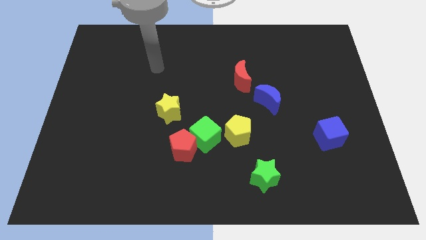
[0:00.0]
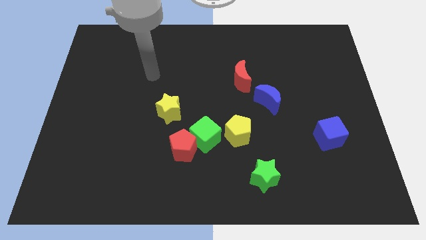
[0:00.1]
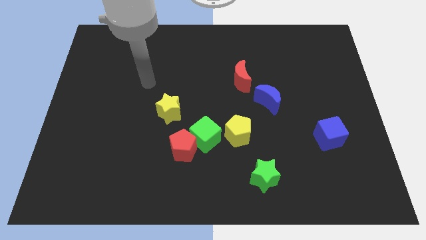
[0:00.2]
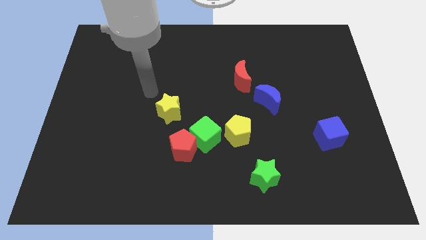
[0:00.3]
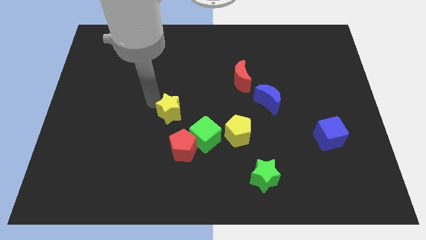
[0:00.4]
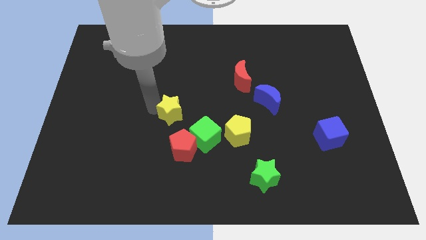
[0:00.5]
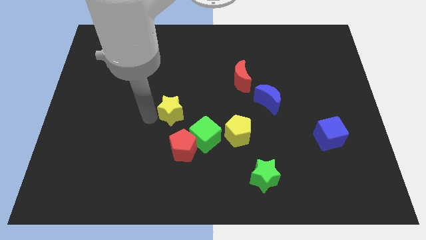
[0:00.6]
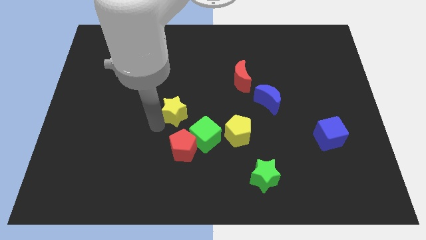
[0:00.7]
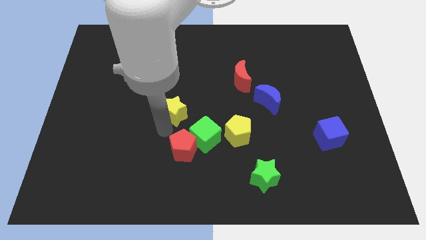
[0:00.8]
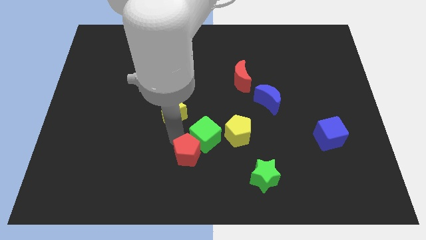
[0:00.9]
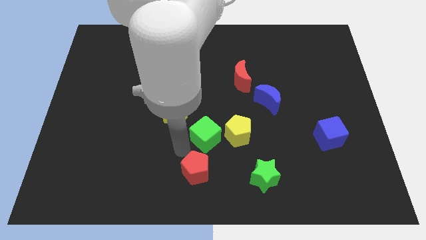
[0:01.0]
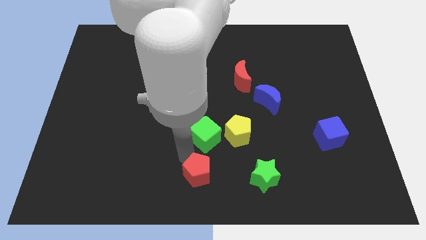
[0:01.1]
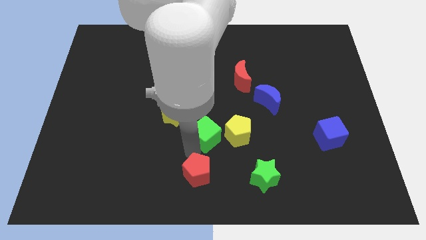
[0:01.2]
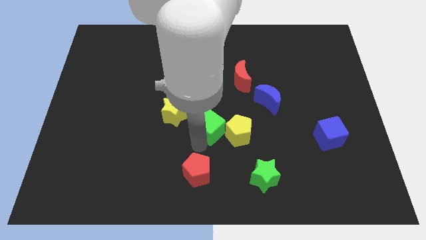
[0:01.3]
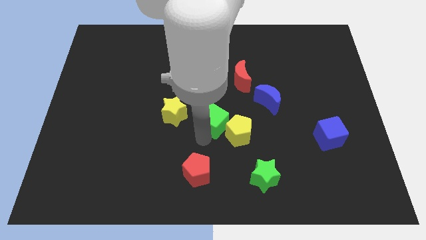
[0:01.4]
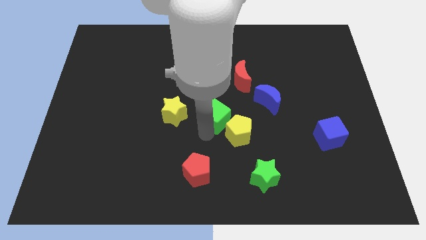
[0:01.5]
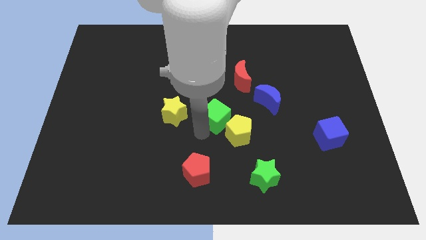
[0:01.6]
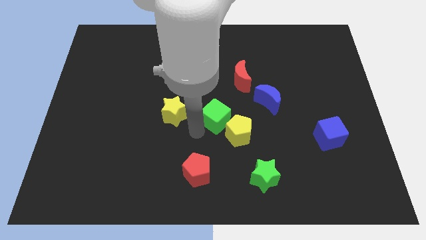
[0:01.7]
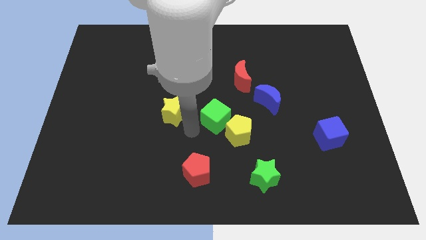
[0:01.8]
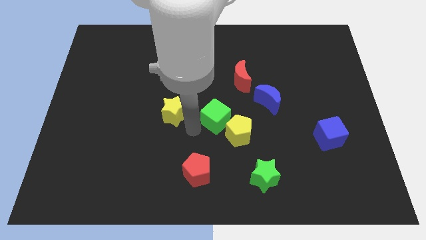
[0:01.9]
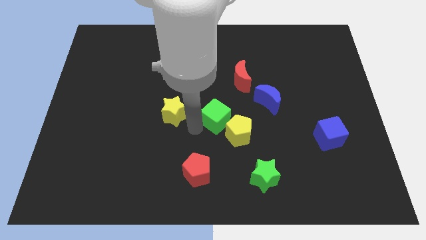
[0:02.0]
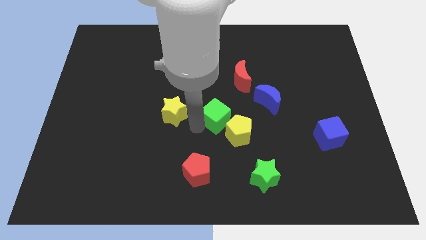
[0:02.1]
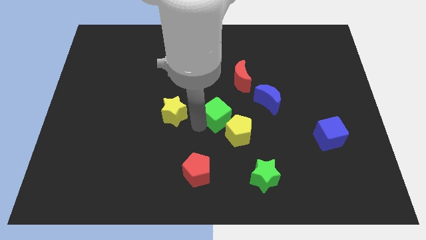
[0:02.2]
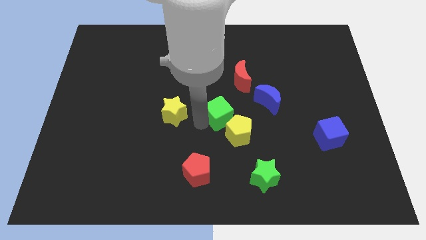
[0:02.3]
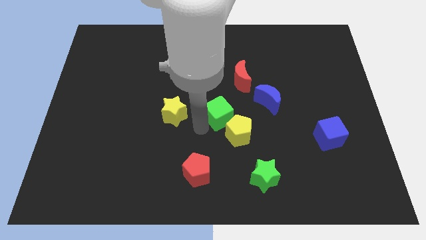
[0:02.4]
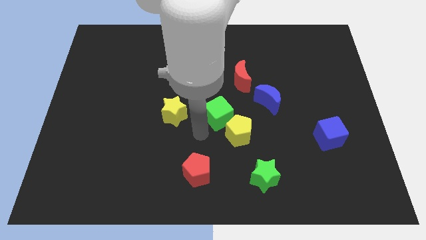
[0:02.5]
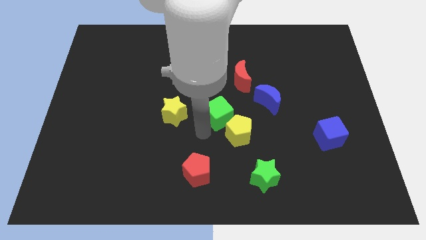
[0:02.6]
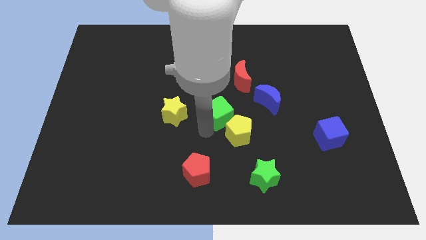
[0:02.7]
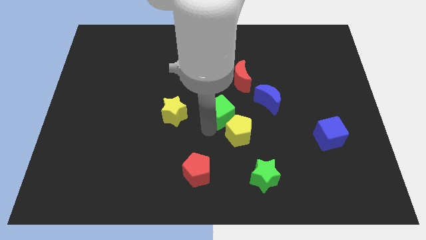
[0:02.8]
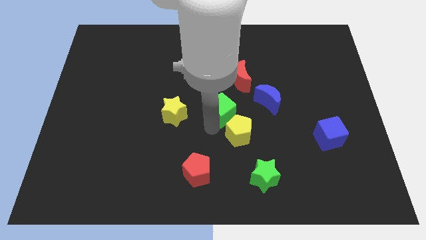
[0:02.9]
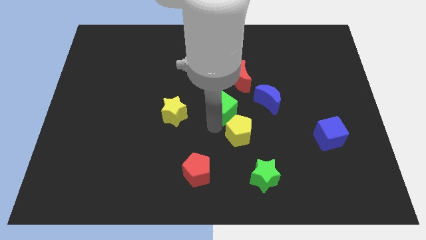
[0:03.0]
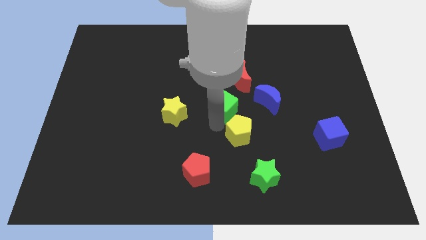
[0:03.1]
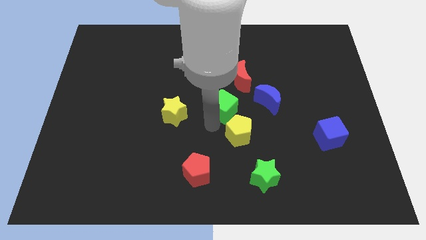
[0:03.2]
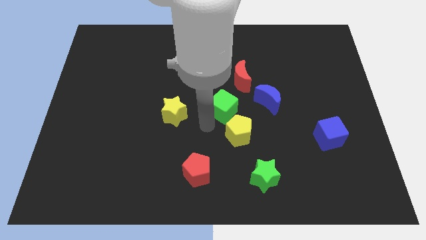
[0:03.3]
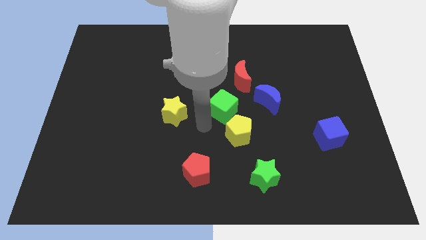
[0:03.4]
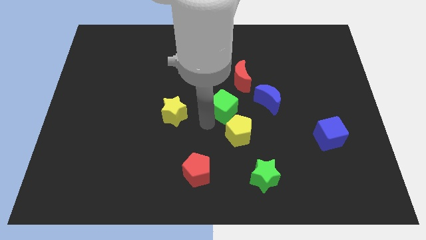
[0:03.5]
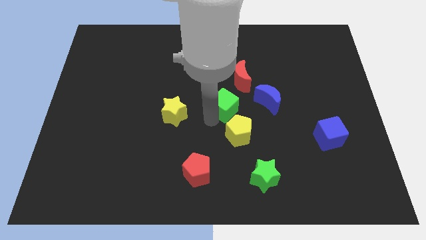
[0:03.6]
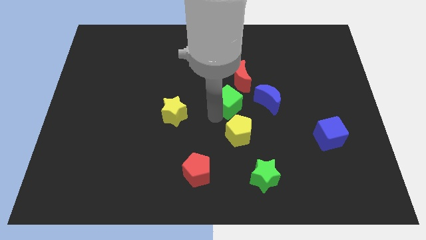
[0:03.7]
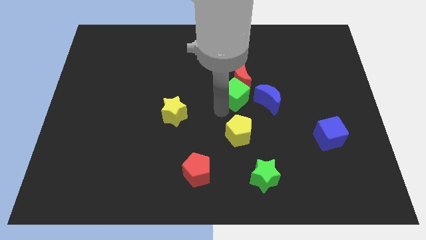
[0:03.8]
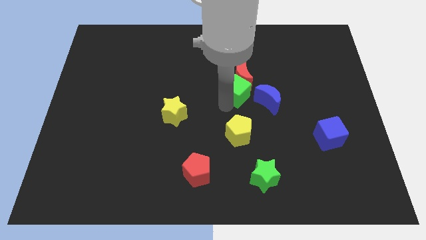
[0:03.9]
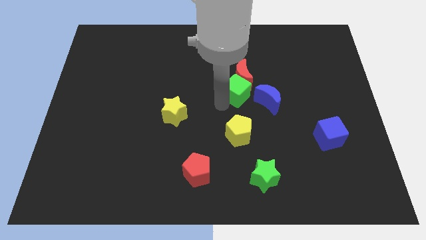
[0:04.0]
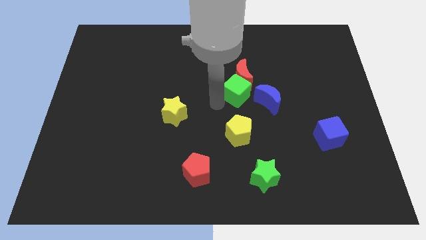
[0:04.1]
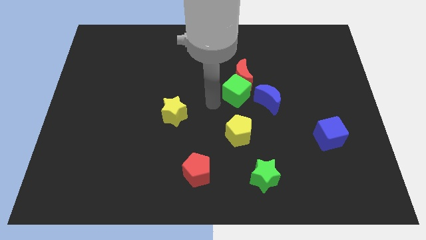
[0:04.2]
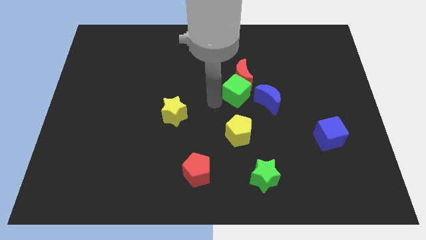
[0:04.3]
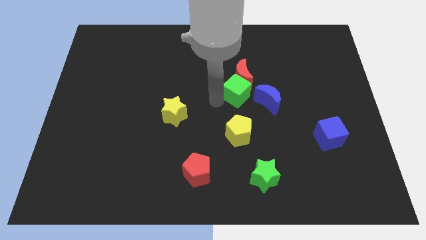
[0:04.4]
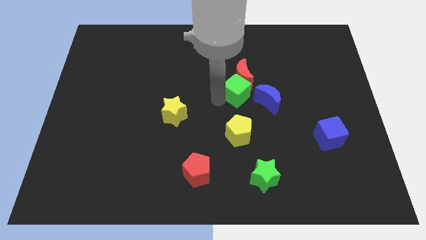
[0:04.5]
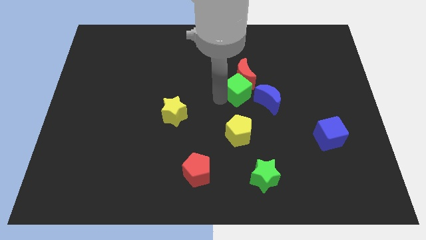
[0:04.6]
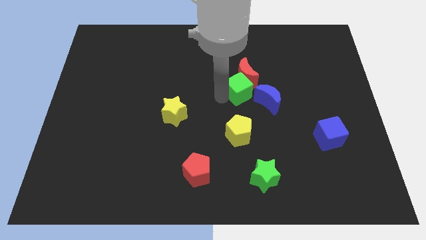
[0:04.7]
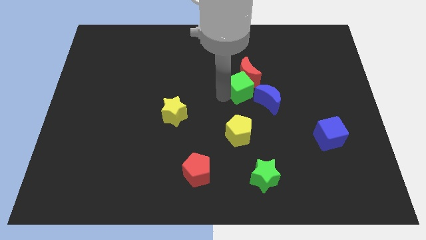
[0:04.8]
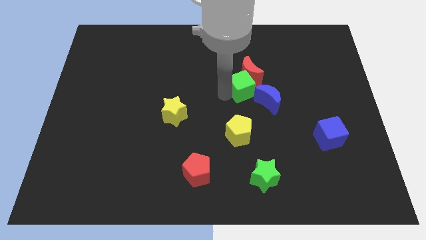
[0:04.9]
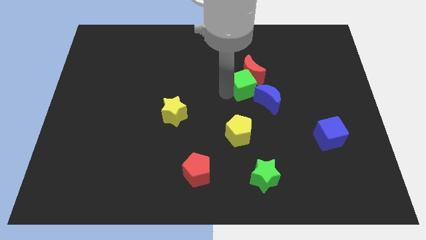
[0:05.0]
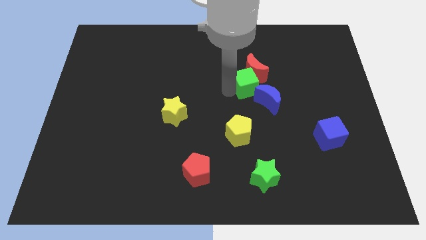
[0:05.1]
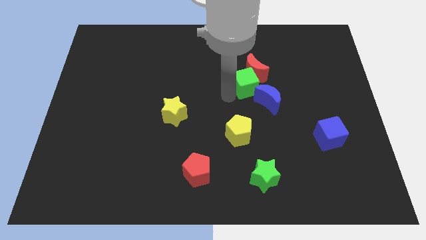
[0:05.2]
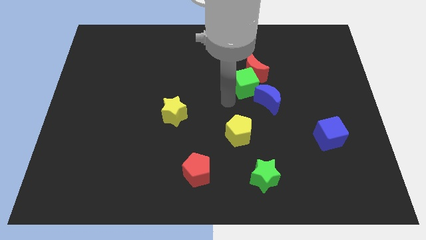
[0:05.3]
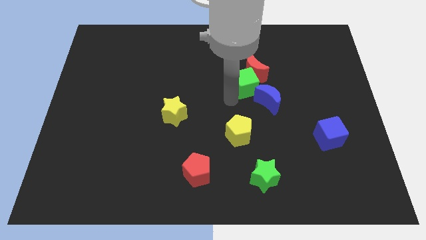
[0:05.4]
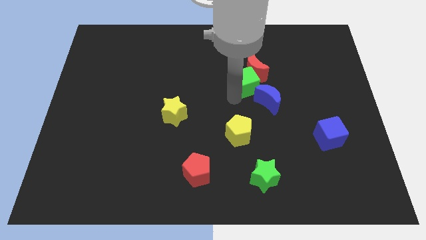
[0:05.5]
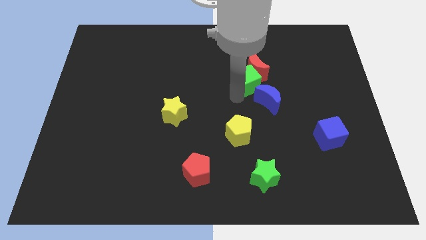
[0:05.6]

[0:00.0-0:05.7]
slide the green cube to the top side of the blue moon

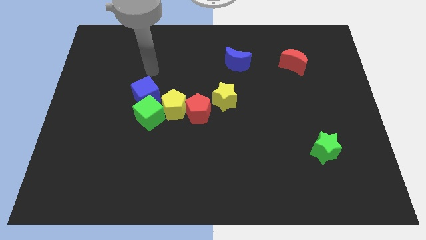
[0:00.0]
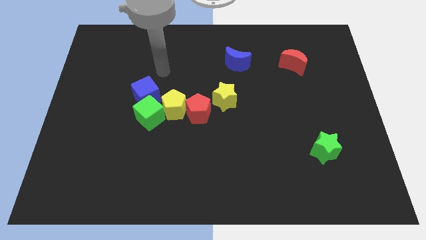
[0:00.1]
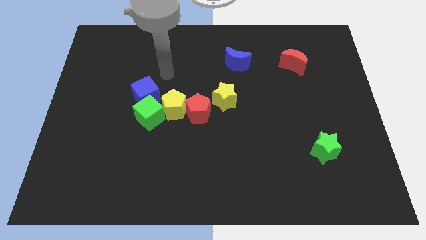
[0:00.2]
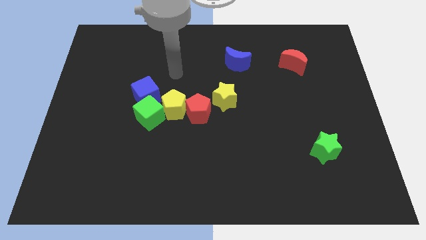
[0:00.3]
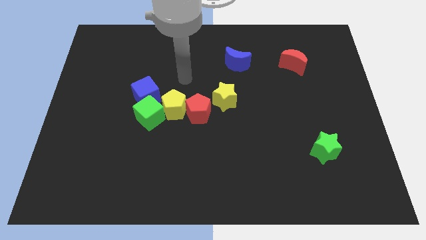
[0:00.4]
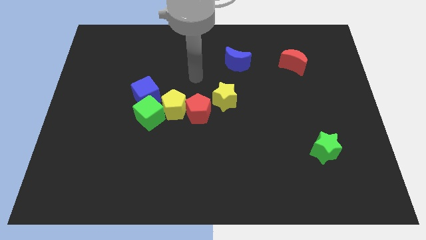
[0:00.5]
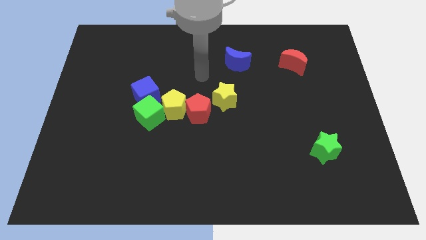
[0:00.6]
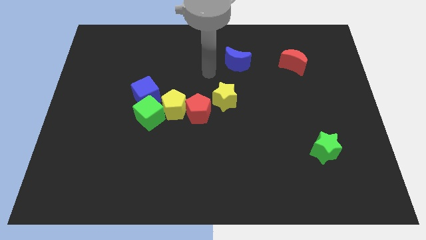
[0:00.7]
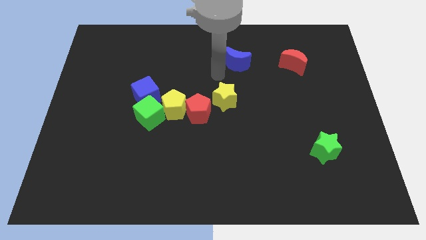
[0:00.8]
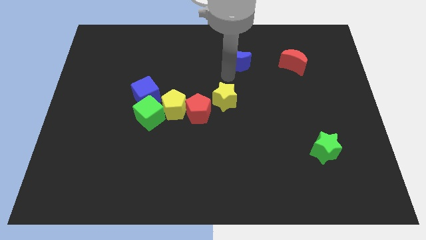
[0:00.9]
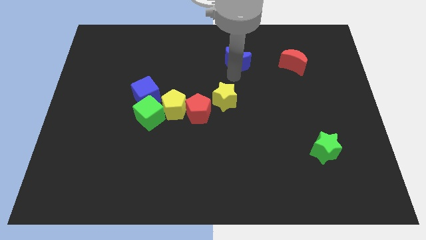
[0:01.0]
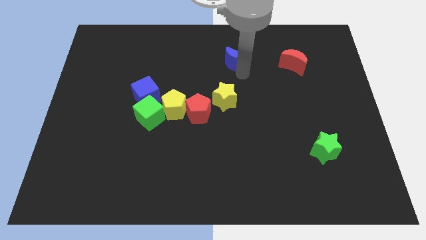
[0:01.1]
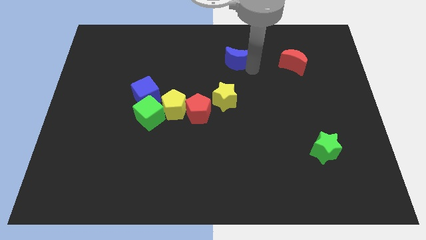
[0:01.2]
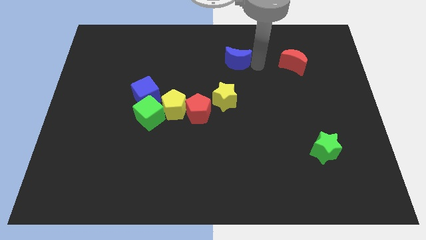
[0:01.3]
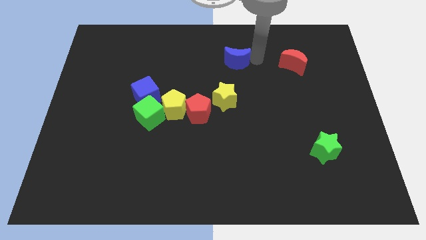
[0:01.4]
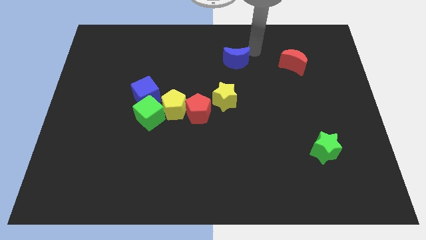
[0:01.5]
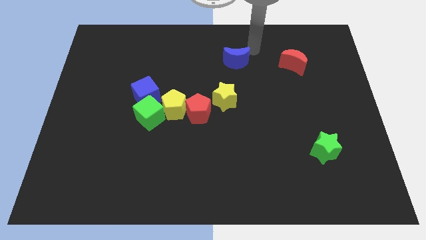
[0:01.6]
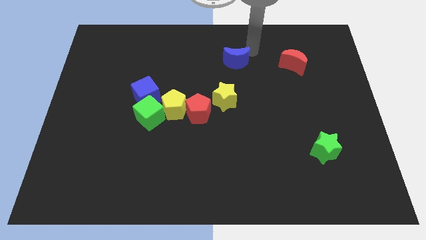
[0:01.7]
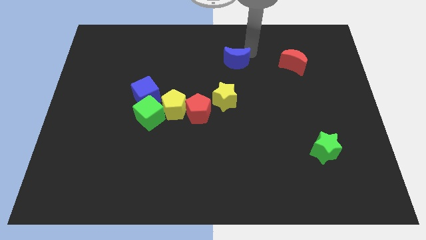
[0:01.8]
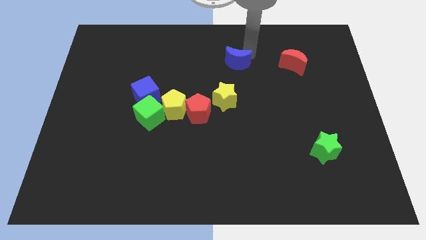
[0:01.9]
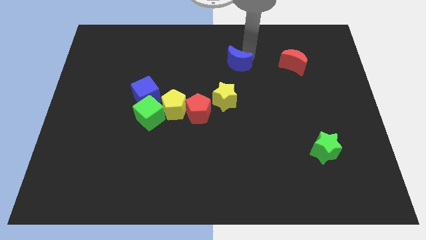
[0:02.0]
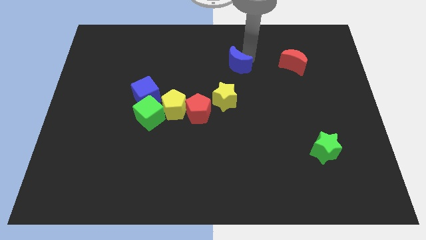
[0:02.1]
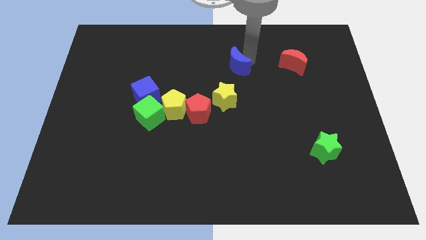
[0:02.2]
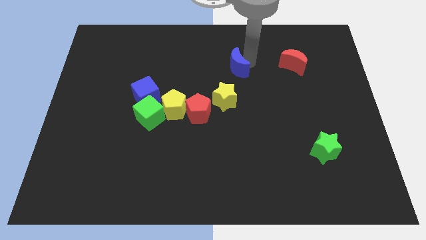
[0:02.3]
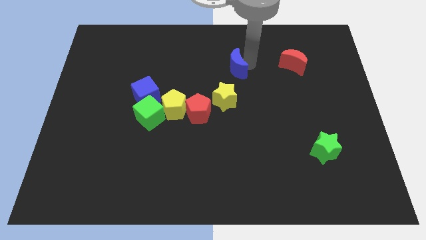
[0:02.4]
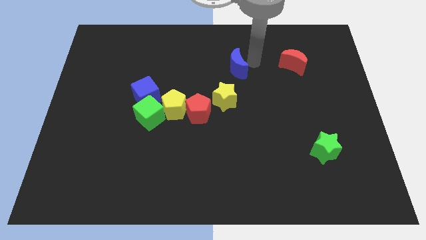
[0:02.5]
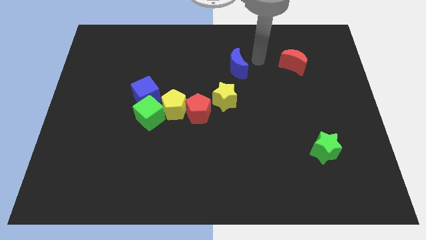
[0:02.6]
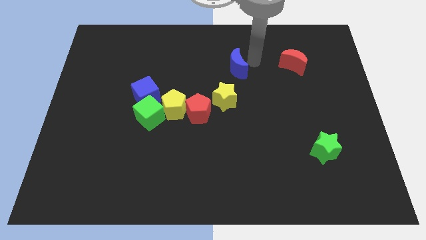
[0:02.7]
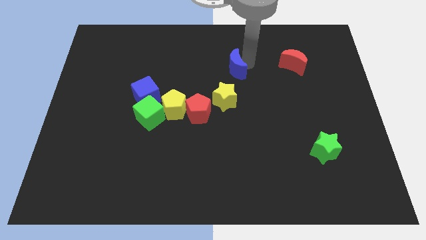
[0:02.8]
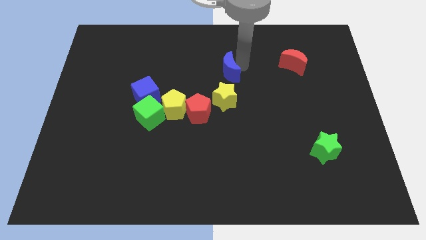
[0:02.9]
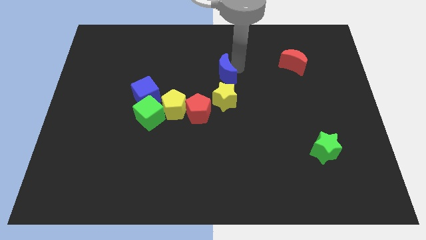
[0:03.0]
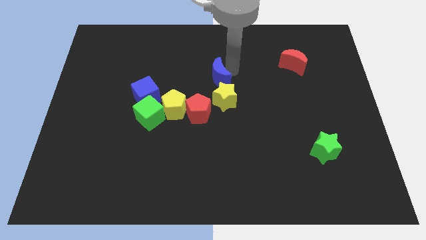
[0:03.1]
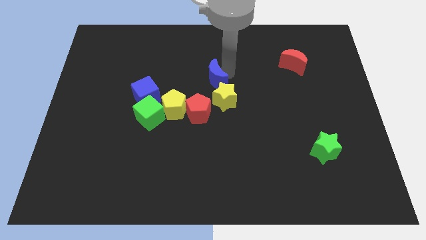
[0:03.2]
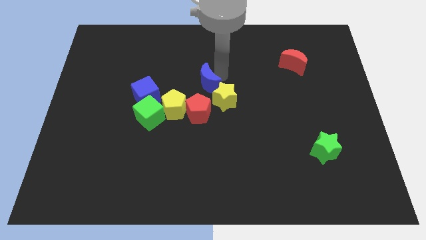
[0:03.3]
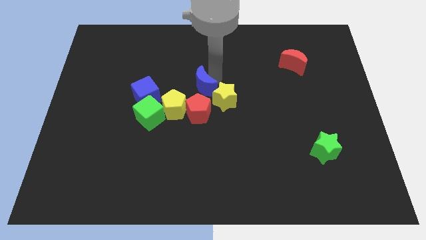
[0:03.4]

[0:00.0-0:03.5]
push the blue moon to the right side of the blue cube
